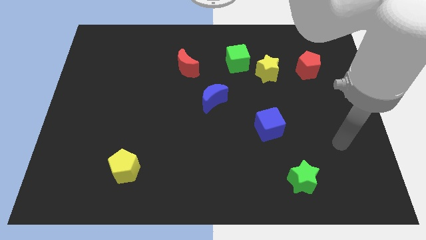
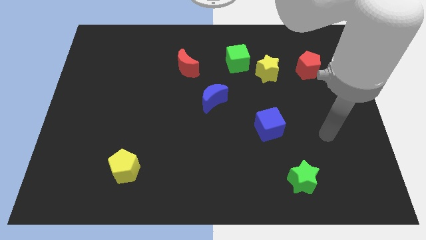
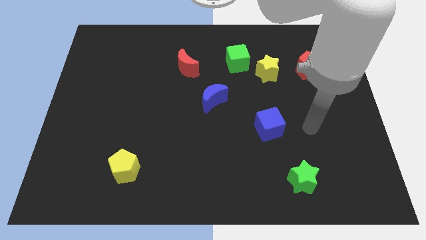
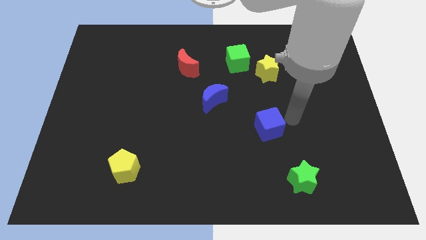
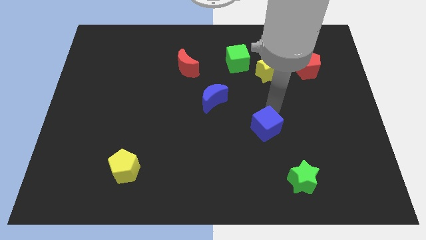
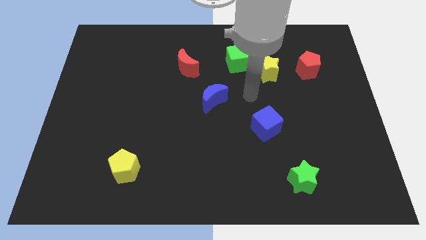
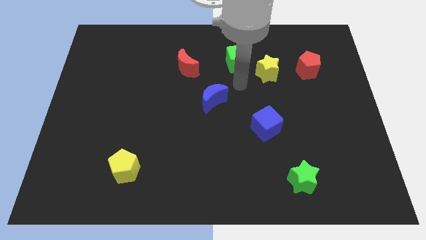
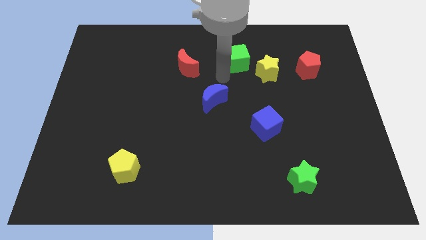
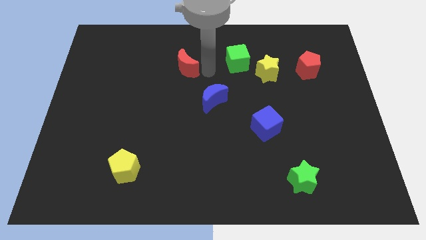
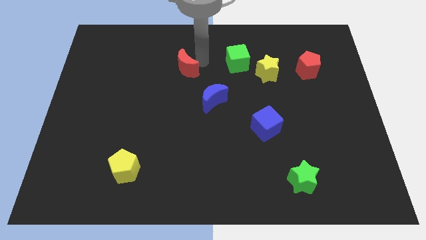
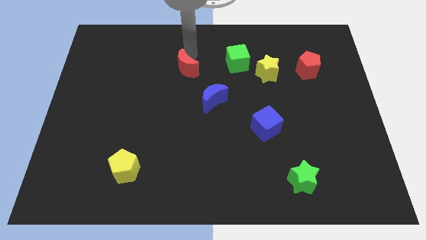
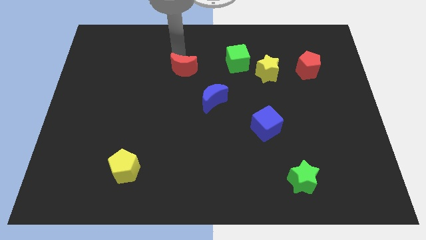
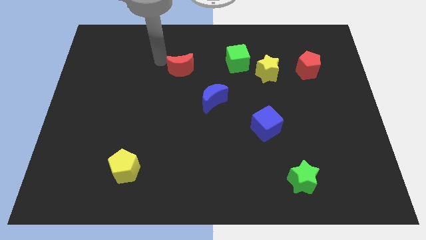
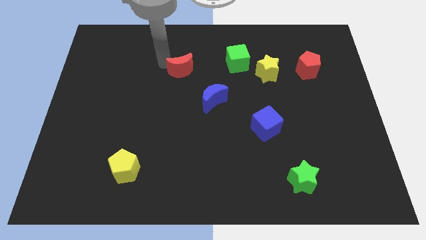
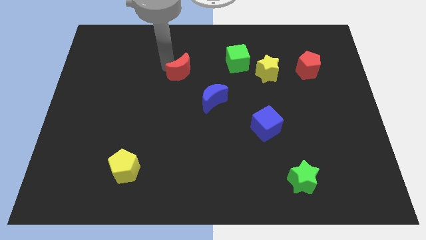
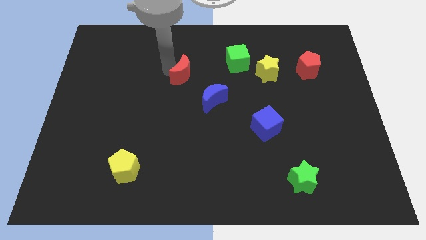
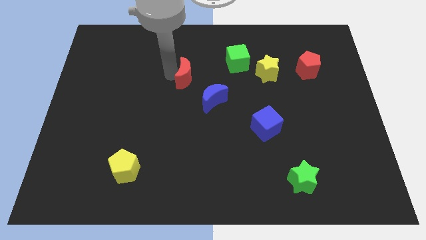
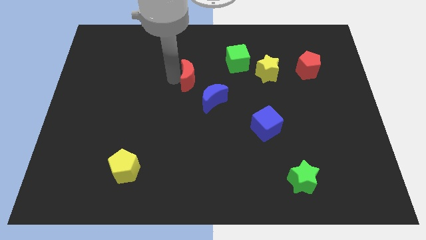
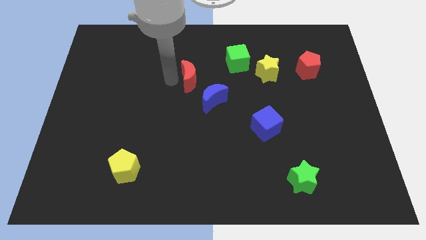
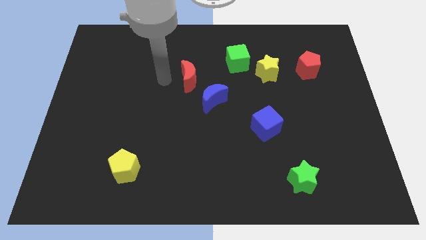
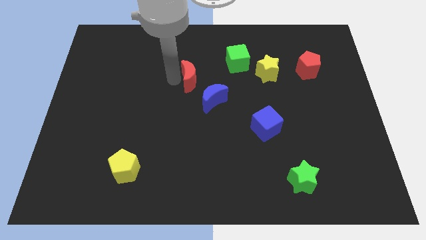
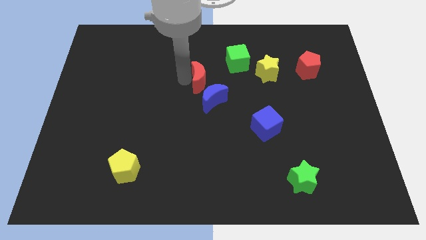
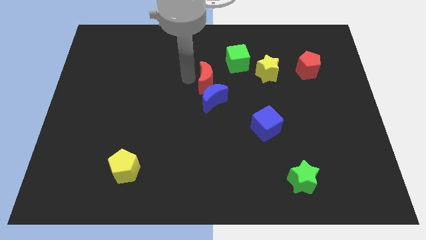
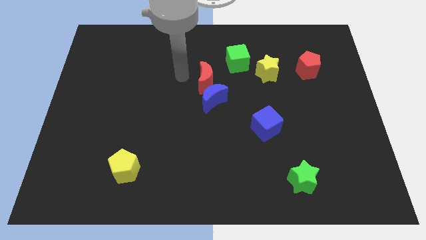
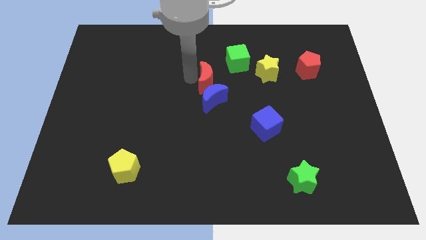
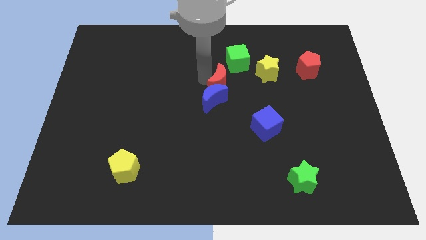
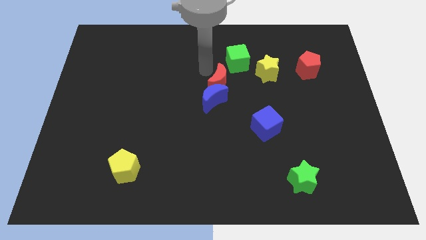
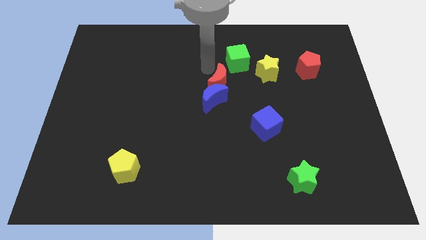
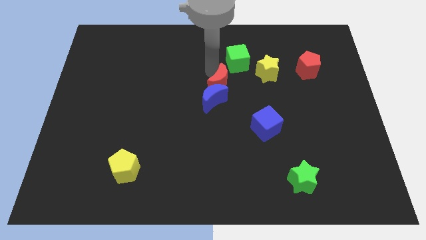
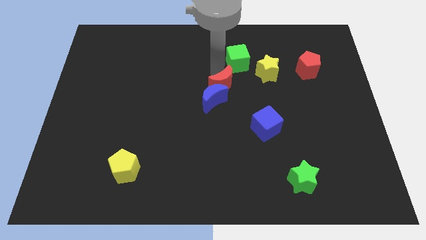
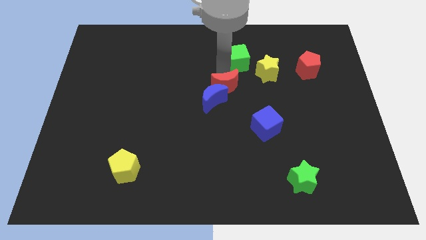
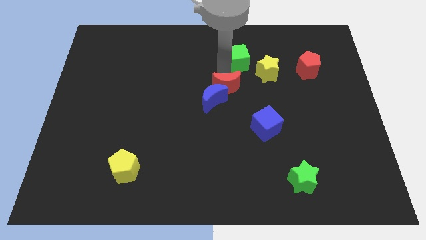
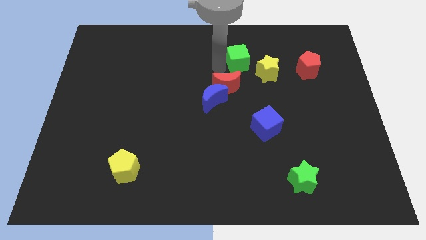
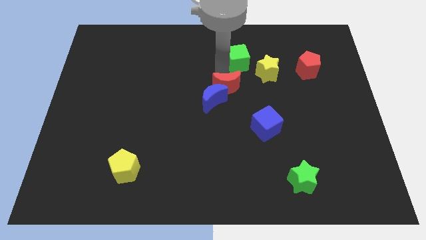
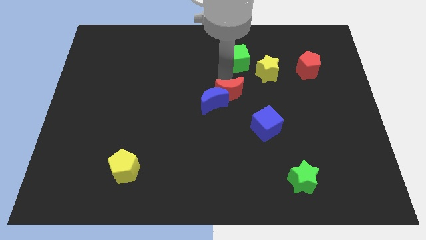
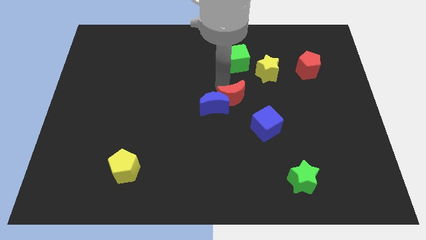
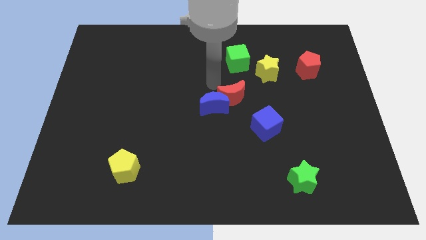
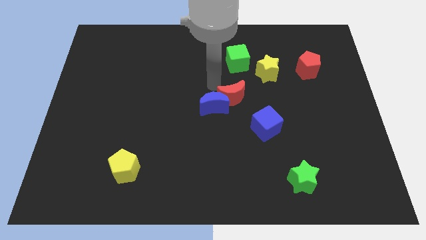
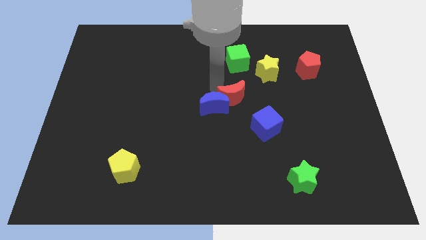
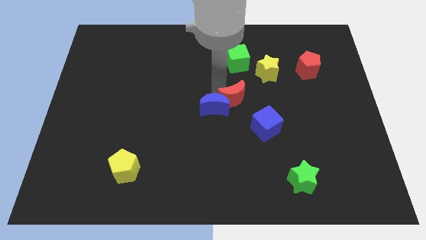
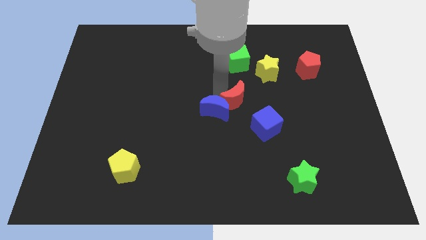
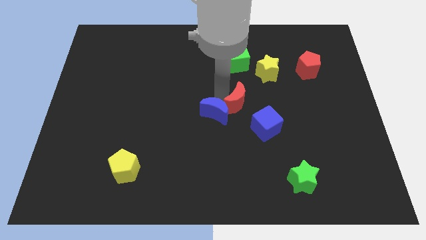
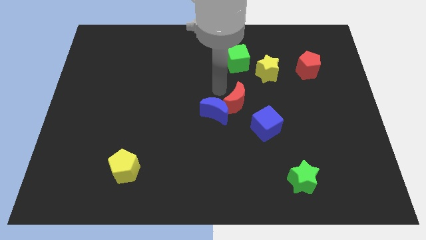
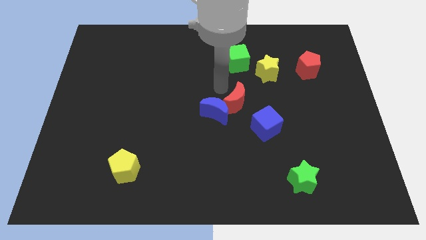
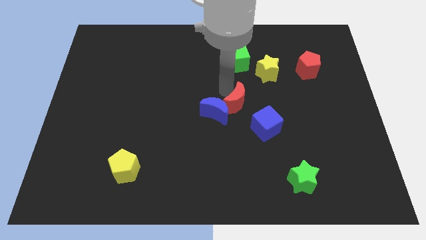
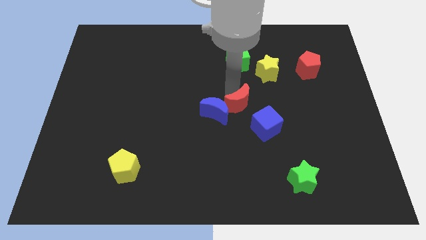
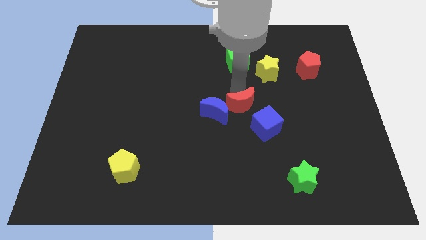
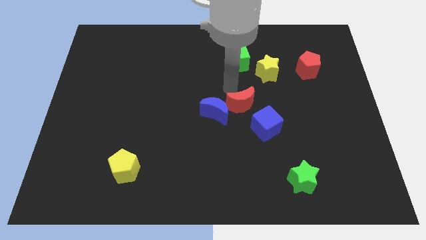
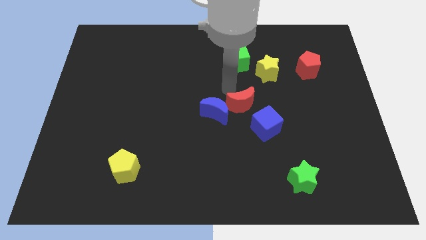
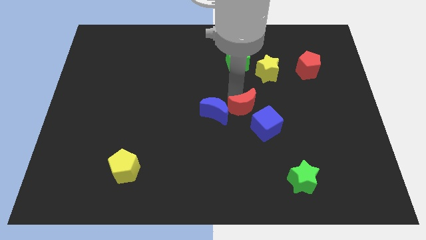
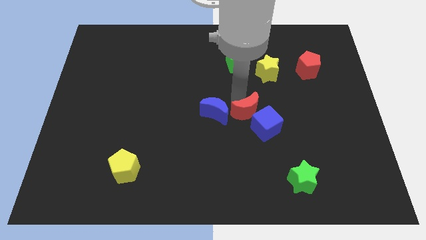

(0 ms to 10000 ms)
slide the red moon close to the blue cube

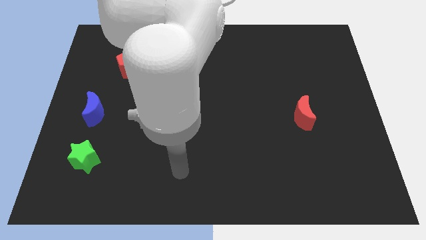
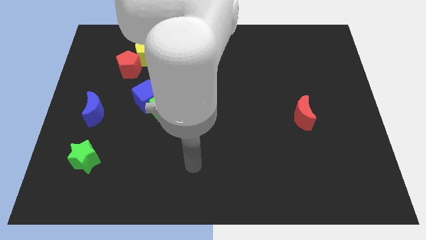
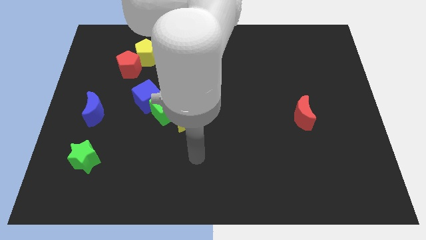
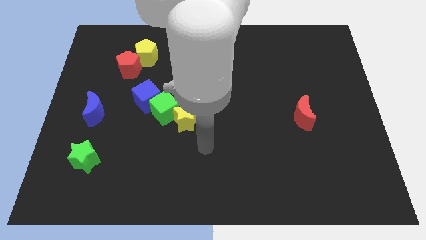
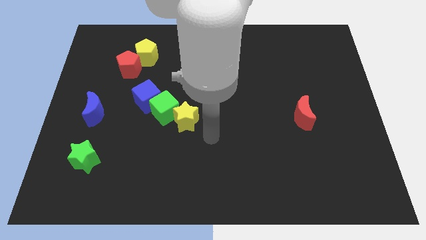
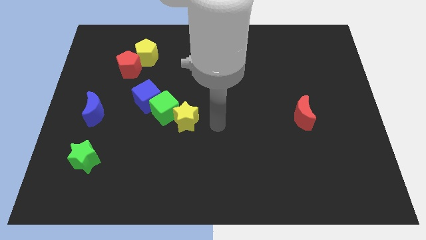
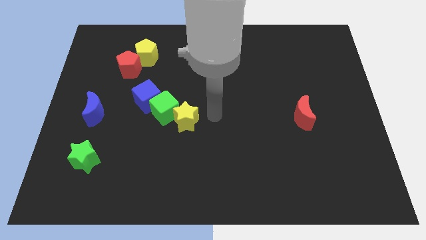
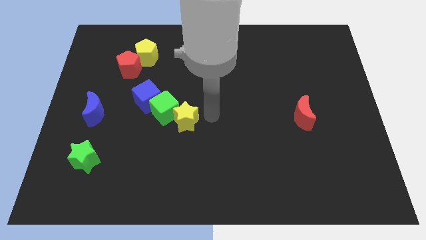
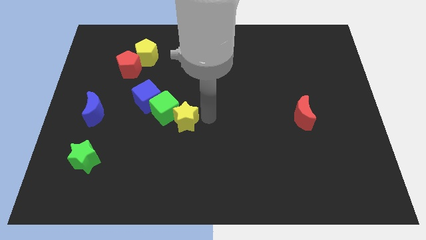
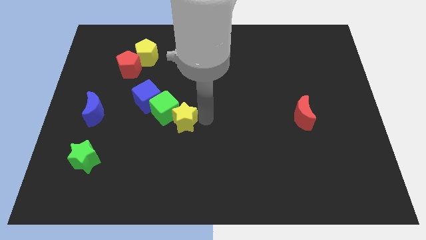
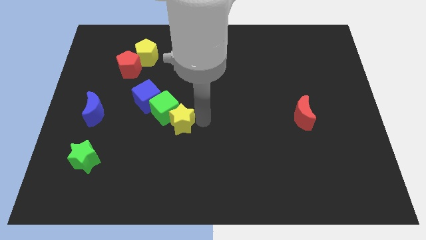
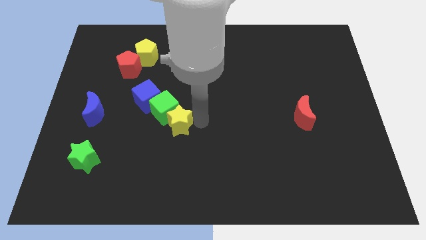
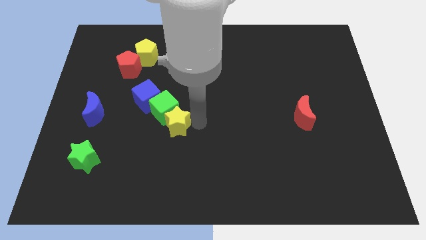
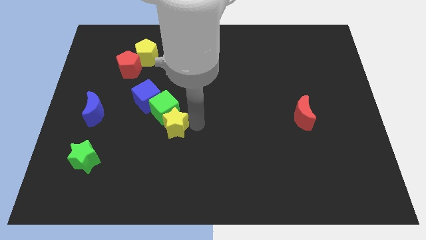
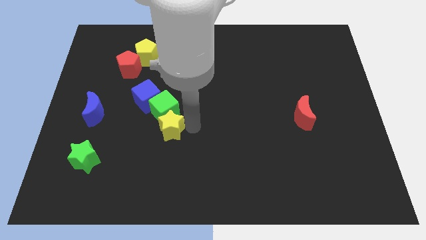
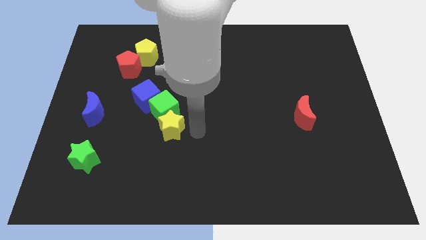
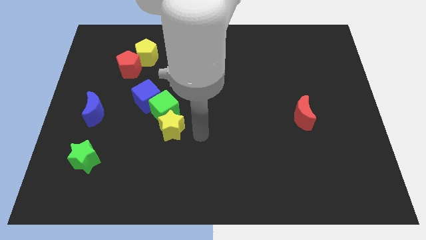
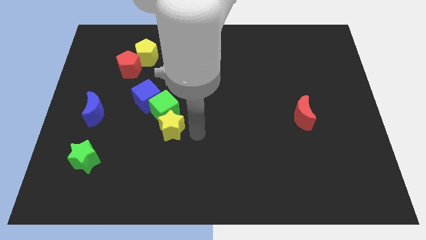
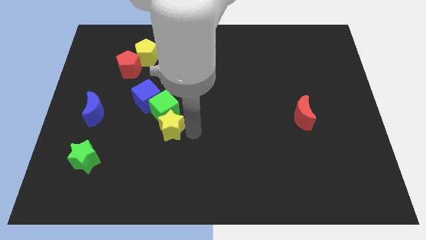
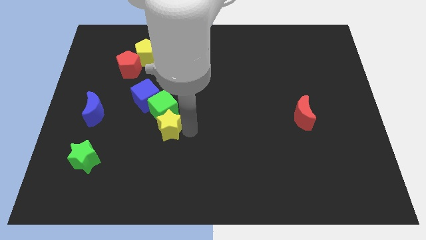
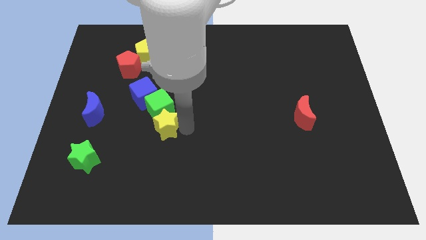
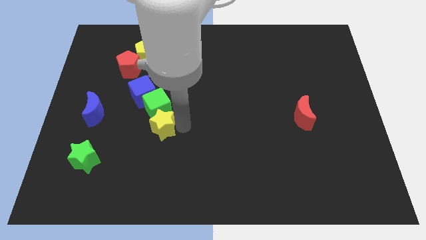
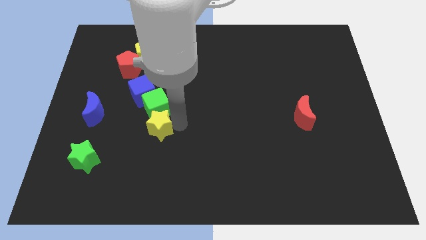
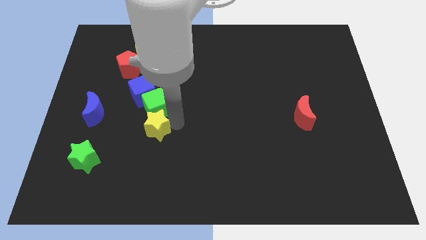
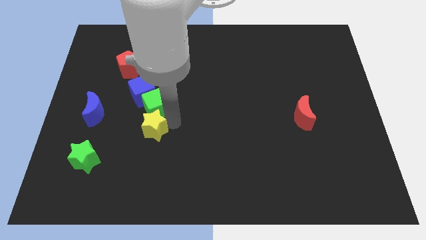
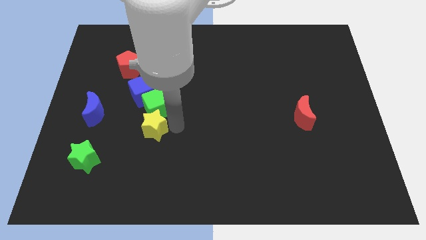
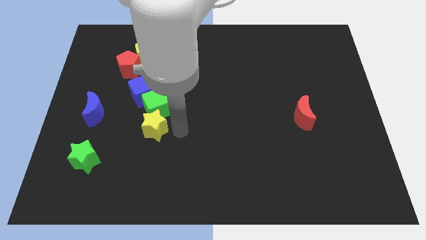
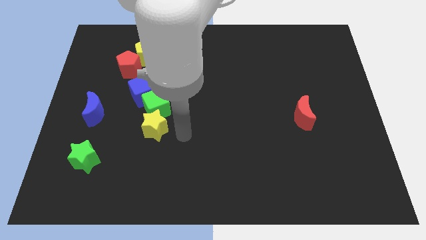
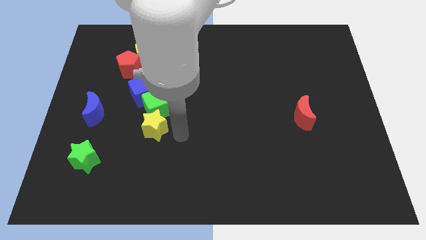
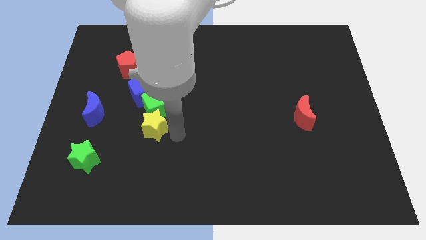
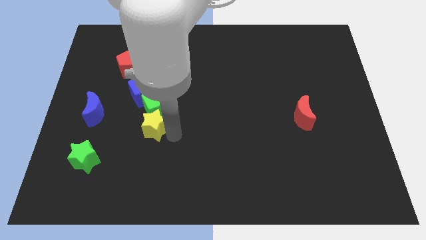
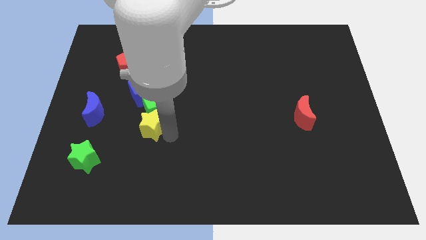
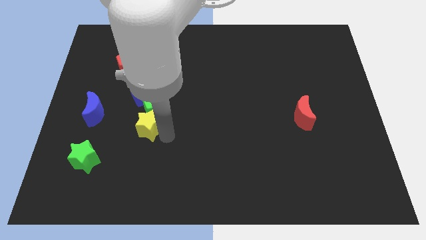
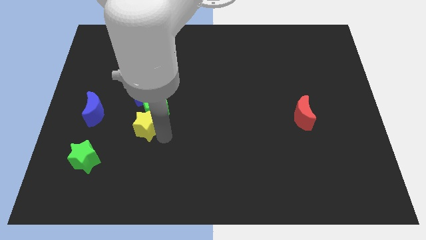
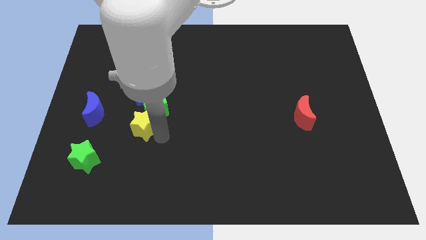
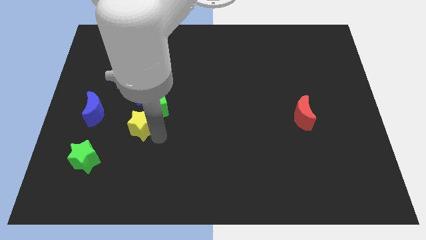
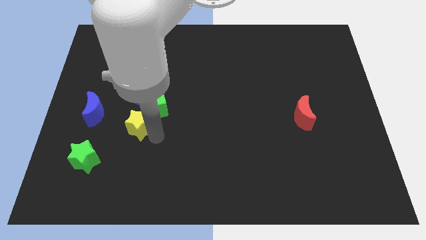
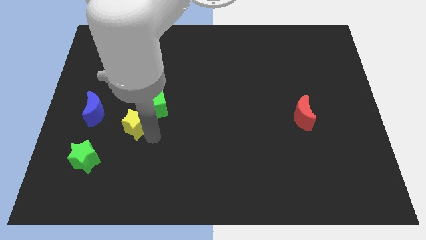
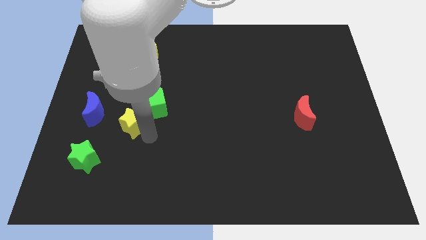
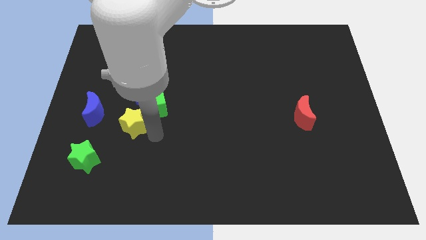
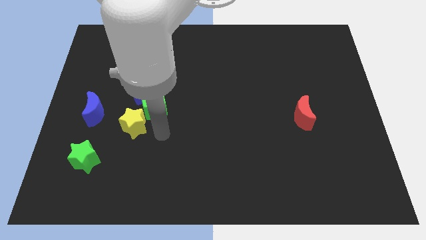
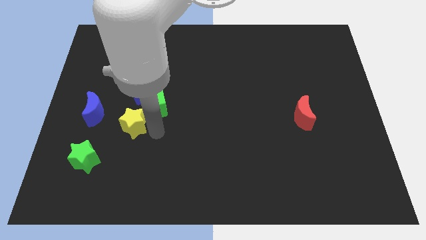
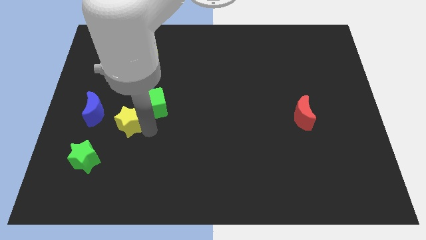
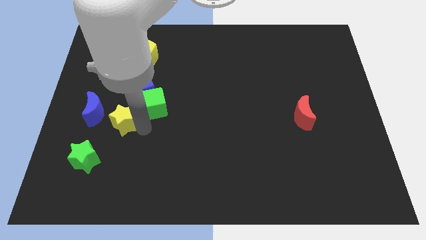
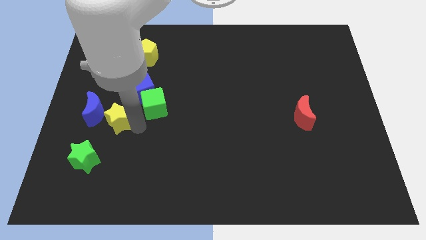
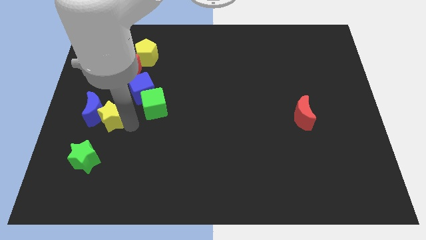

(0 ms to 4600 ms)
put the yellow star to the blue moon
